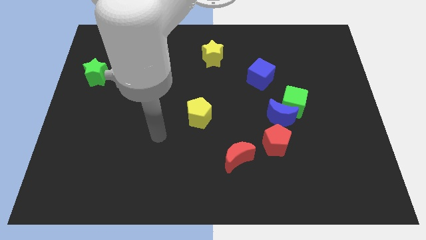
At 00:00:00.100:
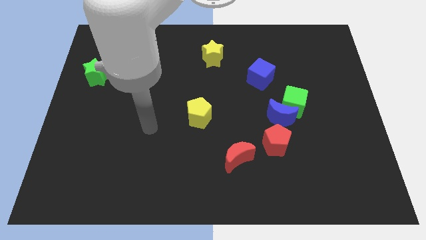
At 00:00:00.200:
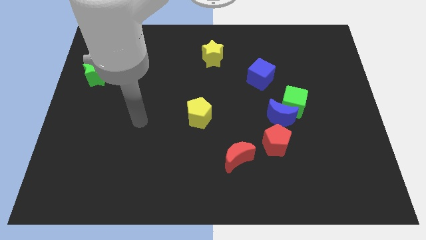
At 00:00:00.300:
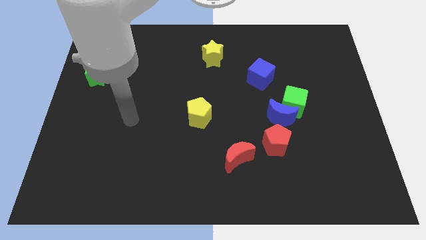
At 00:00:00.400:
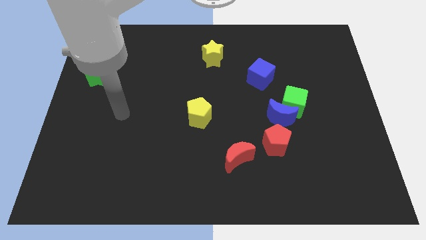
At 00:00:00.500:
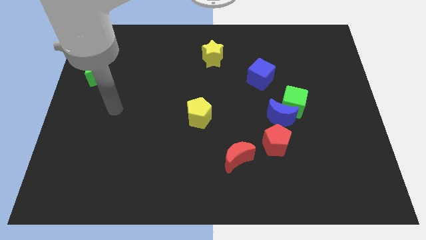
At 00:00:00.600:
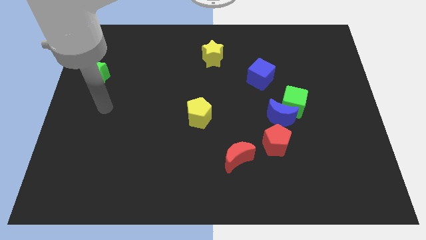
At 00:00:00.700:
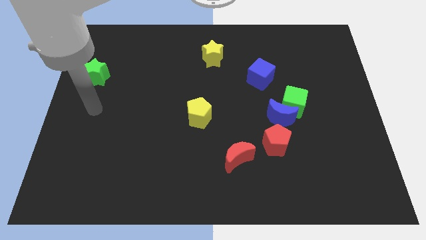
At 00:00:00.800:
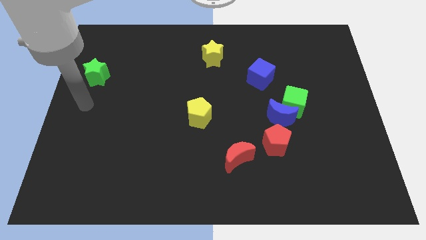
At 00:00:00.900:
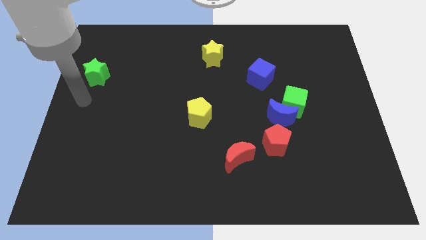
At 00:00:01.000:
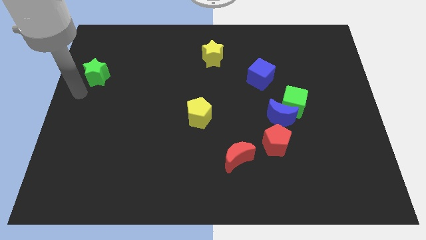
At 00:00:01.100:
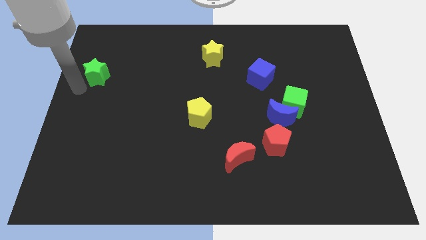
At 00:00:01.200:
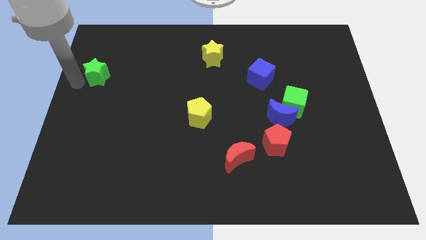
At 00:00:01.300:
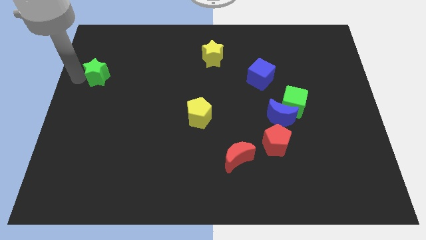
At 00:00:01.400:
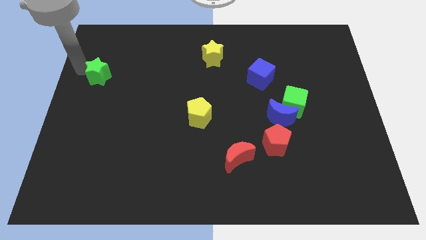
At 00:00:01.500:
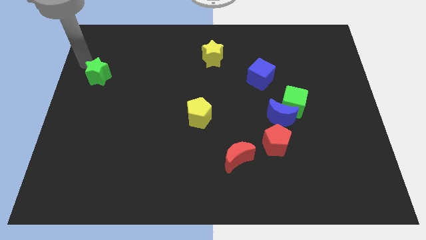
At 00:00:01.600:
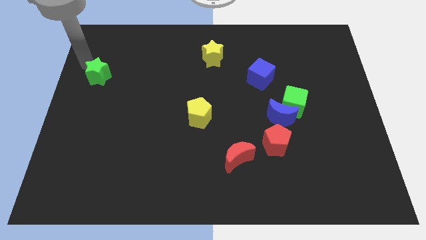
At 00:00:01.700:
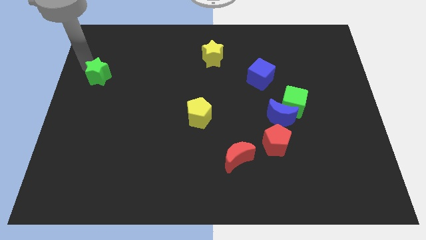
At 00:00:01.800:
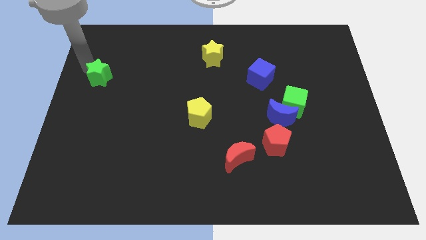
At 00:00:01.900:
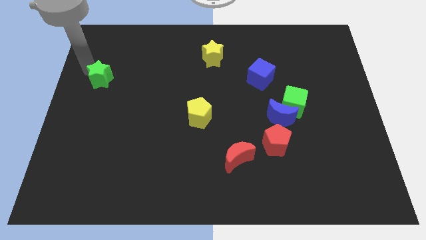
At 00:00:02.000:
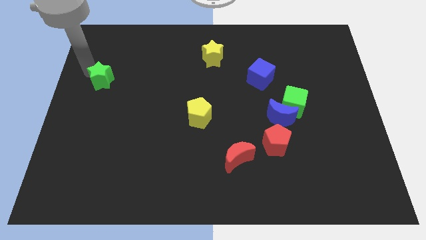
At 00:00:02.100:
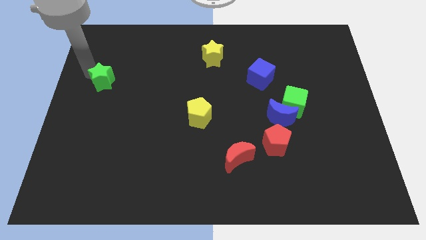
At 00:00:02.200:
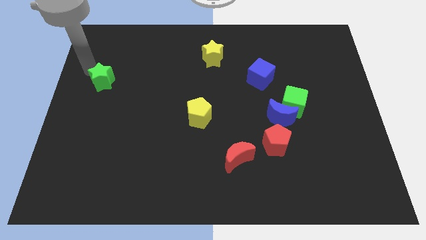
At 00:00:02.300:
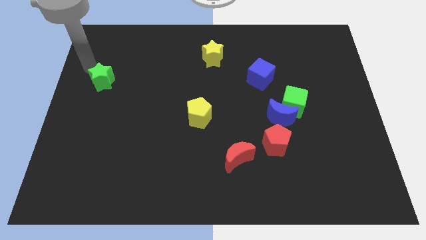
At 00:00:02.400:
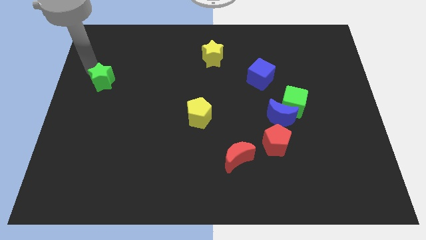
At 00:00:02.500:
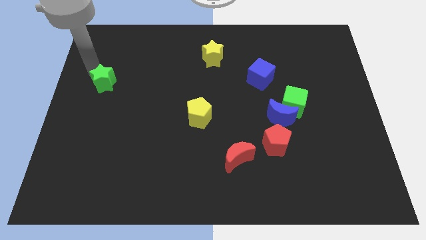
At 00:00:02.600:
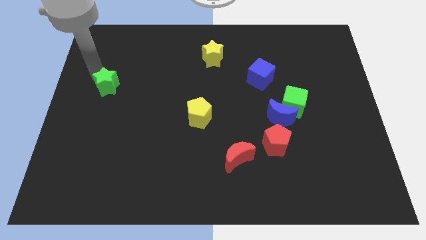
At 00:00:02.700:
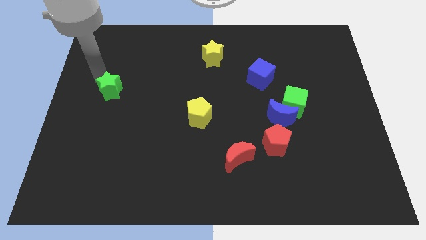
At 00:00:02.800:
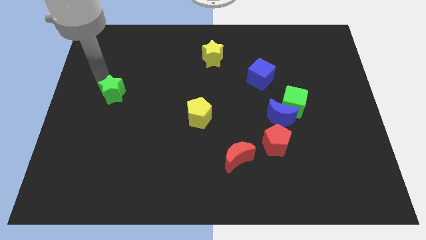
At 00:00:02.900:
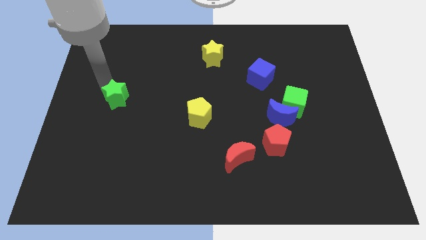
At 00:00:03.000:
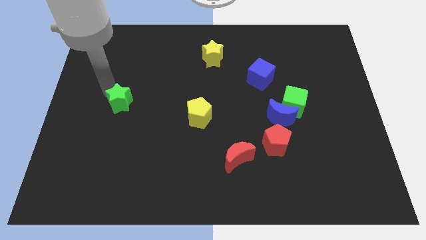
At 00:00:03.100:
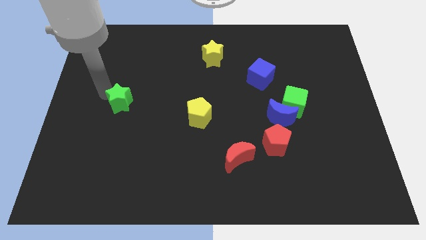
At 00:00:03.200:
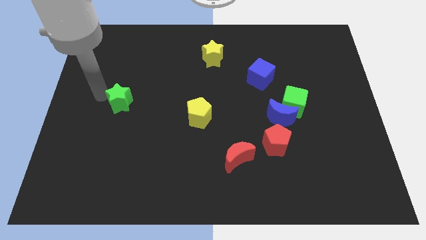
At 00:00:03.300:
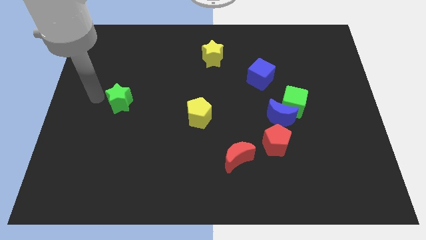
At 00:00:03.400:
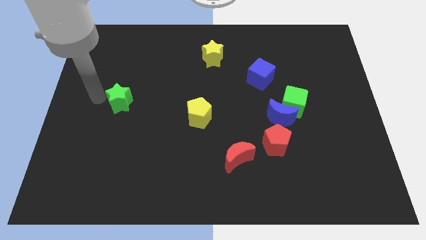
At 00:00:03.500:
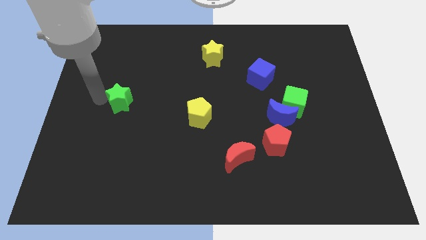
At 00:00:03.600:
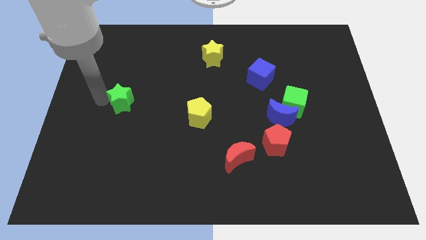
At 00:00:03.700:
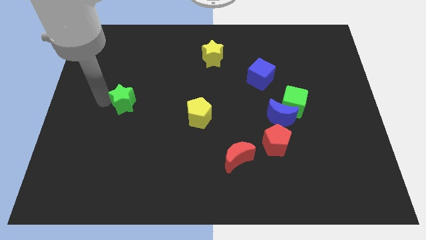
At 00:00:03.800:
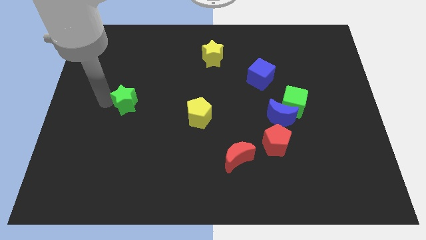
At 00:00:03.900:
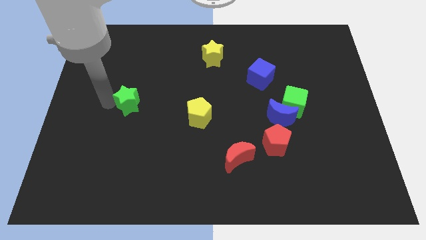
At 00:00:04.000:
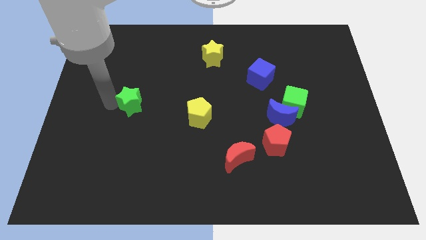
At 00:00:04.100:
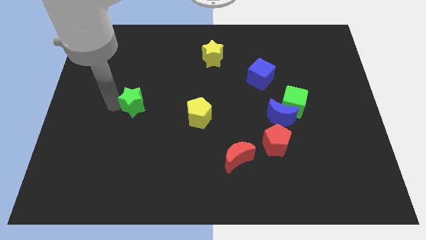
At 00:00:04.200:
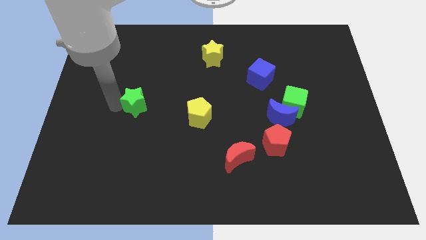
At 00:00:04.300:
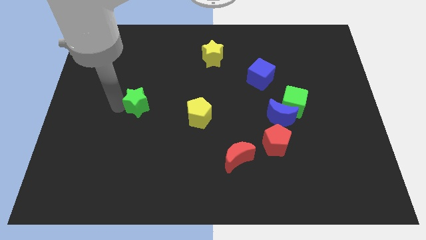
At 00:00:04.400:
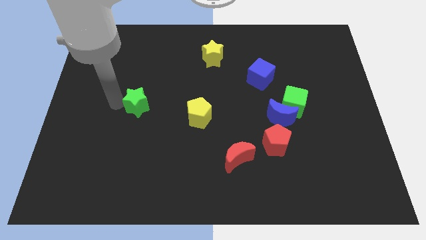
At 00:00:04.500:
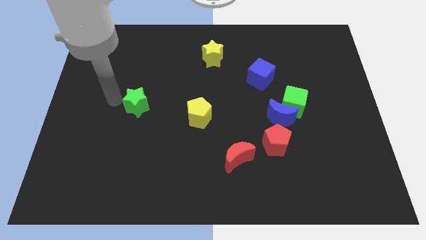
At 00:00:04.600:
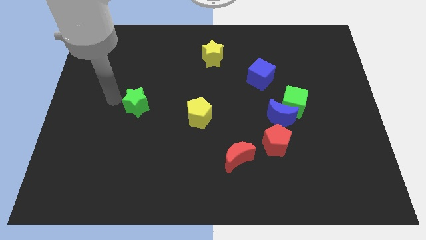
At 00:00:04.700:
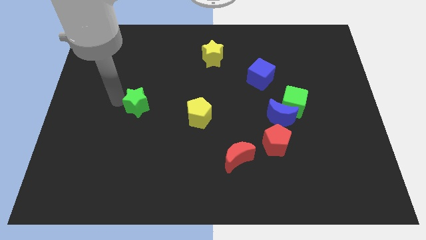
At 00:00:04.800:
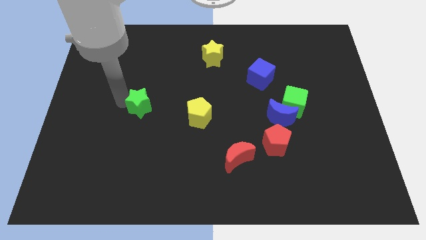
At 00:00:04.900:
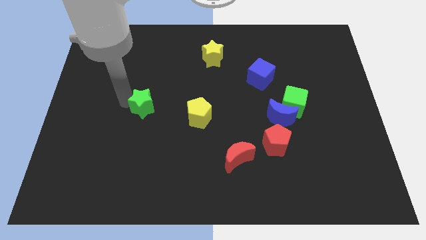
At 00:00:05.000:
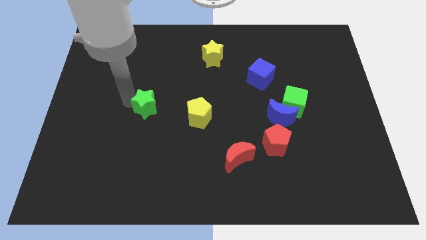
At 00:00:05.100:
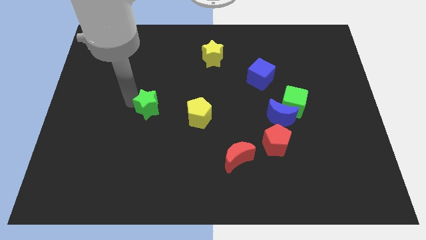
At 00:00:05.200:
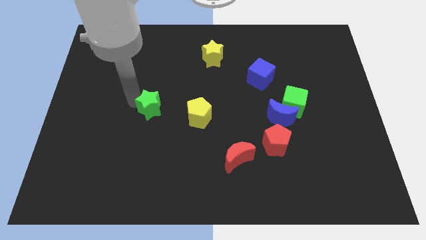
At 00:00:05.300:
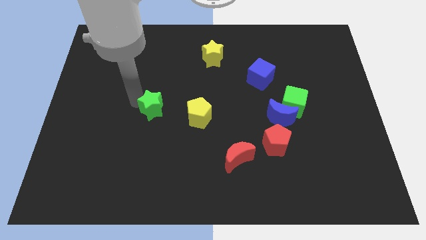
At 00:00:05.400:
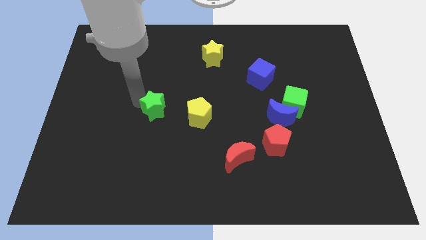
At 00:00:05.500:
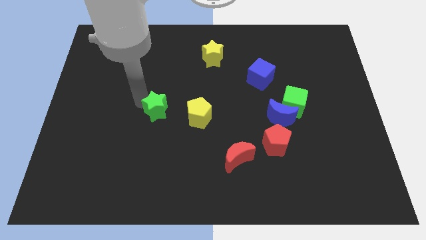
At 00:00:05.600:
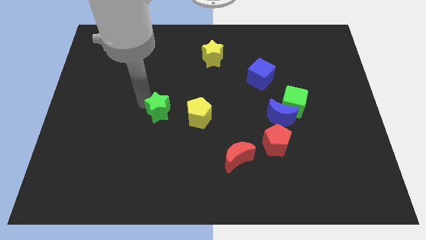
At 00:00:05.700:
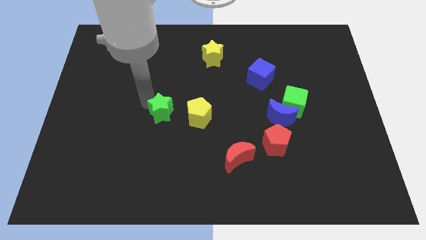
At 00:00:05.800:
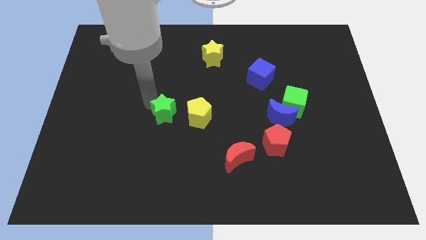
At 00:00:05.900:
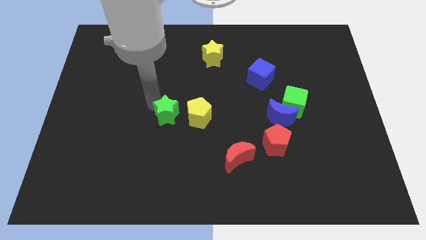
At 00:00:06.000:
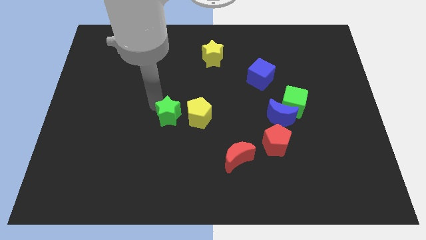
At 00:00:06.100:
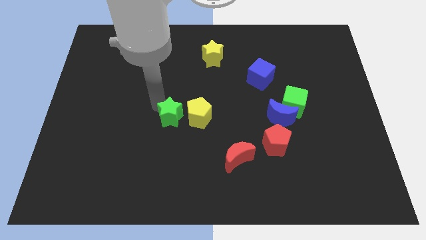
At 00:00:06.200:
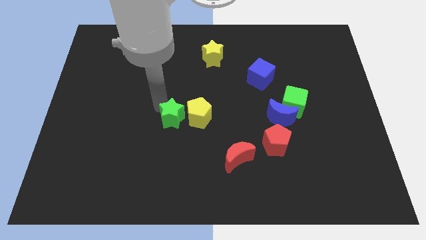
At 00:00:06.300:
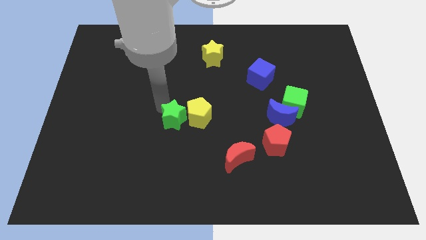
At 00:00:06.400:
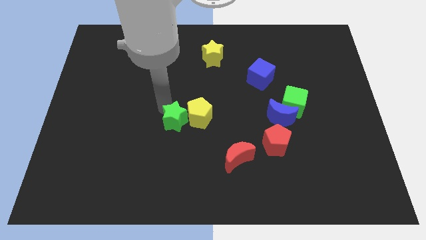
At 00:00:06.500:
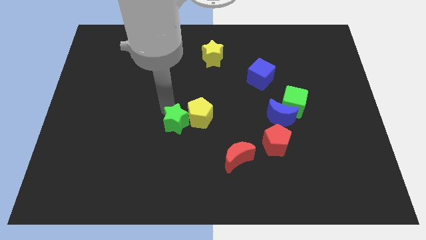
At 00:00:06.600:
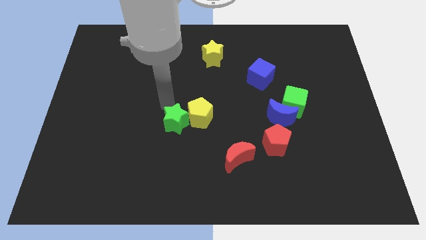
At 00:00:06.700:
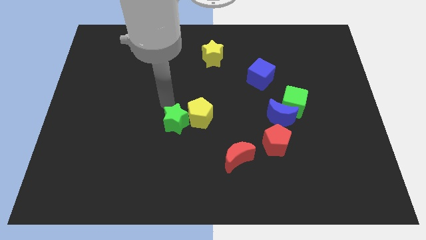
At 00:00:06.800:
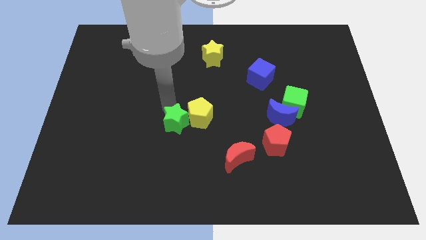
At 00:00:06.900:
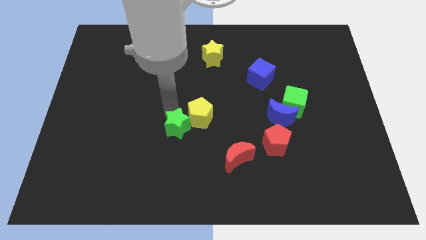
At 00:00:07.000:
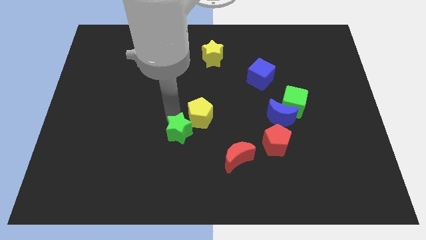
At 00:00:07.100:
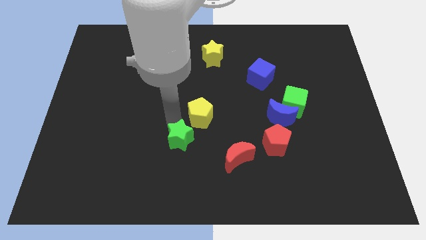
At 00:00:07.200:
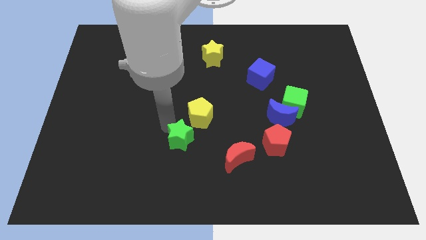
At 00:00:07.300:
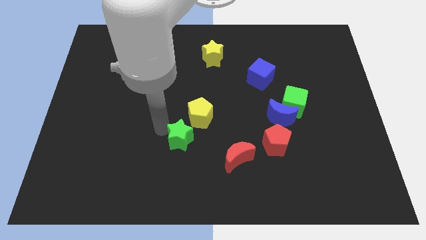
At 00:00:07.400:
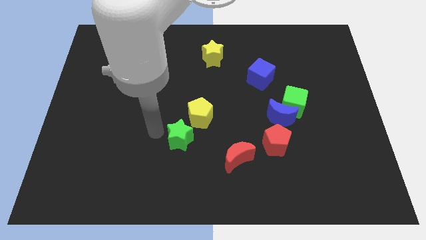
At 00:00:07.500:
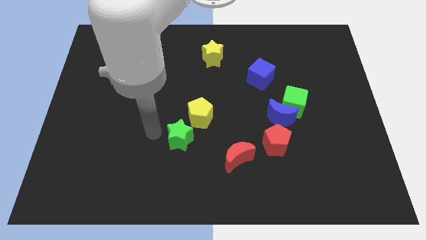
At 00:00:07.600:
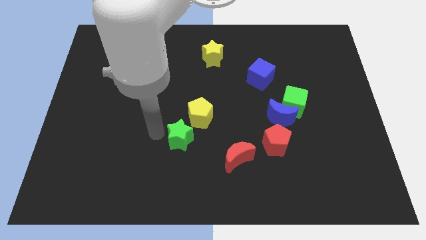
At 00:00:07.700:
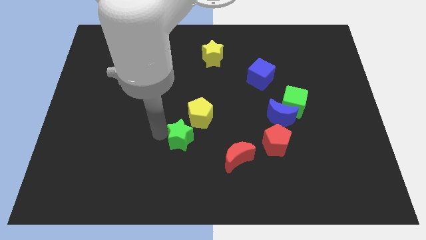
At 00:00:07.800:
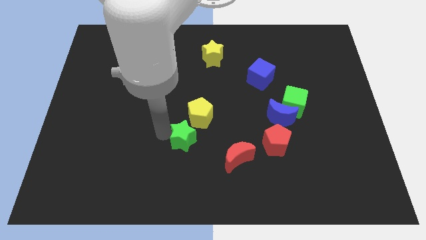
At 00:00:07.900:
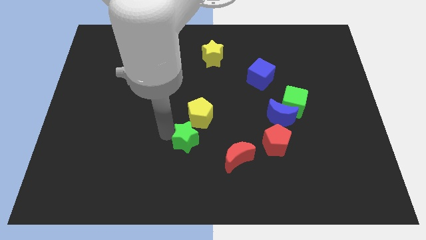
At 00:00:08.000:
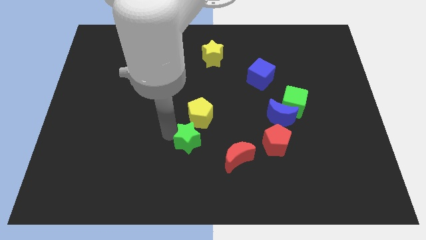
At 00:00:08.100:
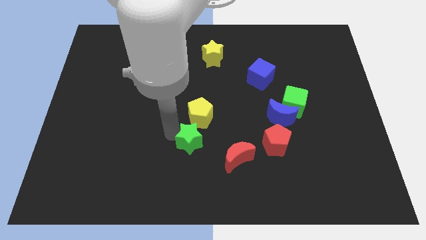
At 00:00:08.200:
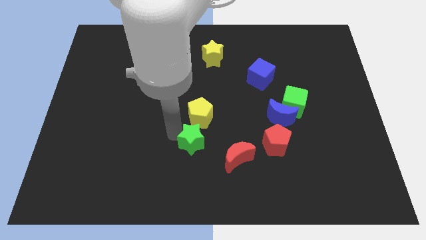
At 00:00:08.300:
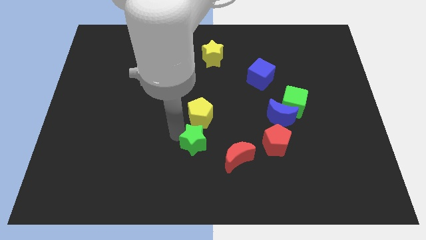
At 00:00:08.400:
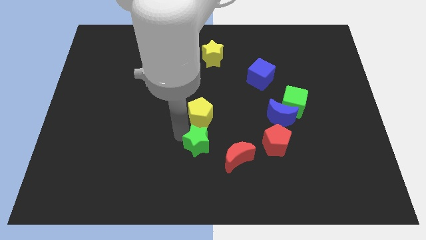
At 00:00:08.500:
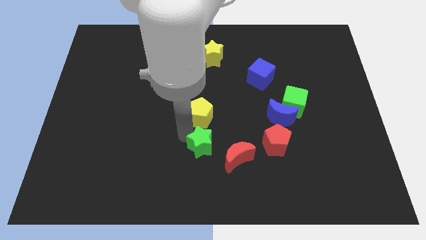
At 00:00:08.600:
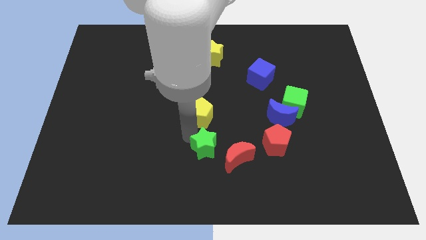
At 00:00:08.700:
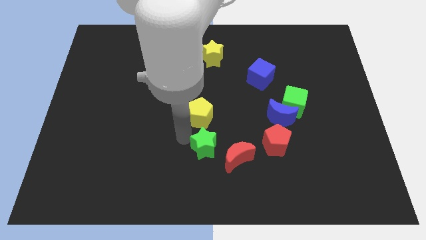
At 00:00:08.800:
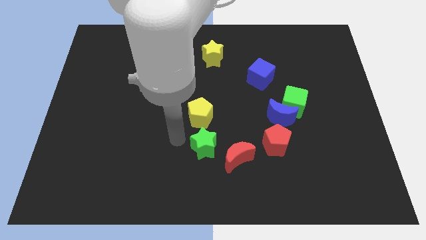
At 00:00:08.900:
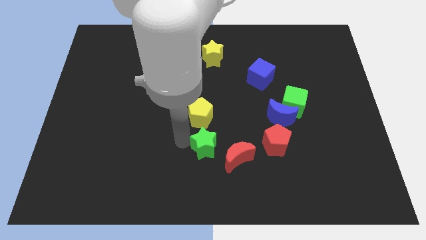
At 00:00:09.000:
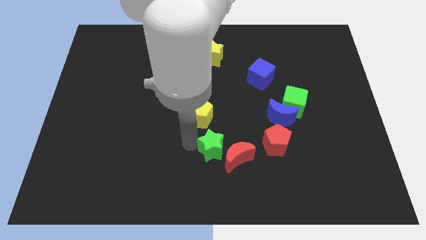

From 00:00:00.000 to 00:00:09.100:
move the green star to the red moon
